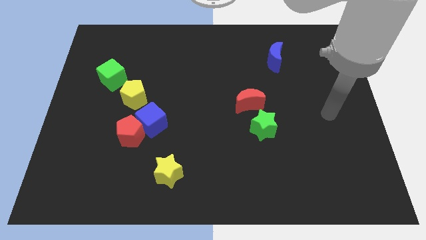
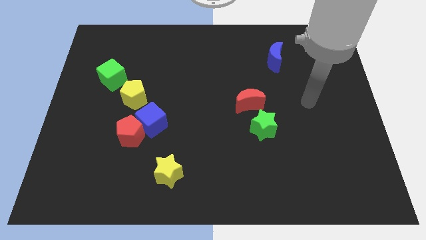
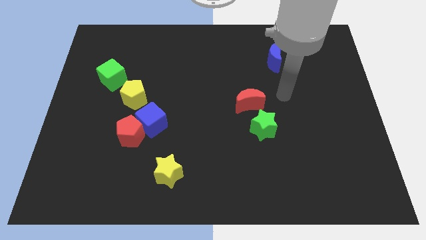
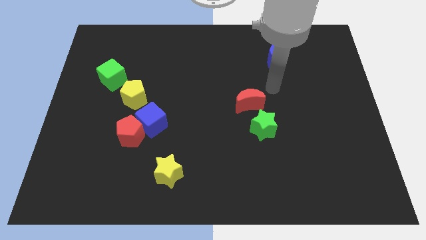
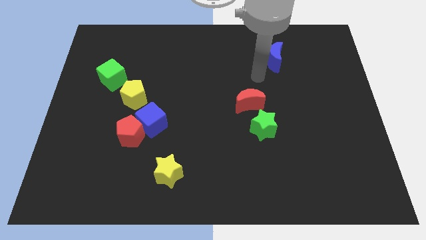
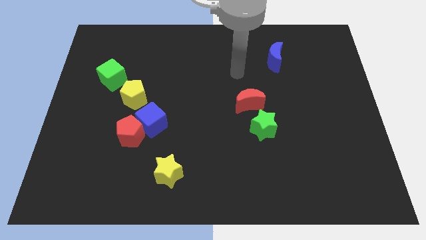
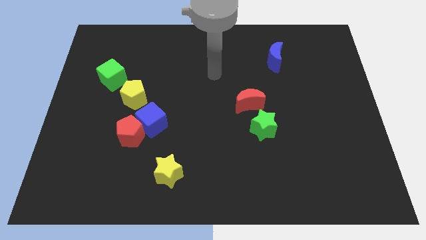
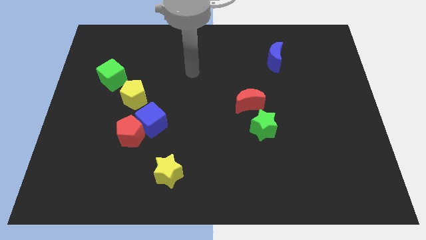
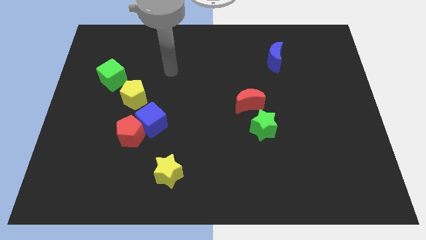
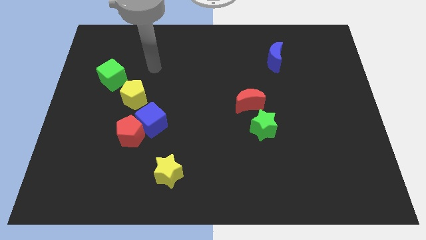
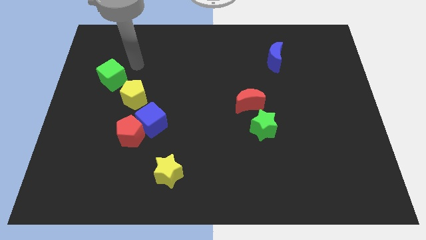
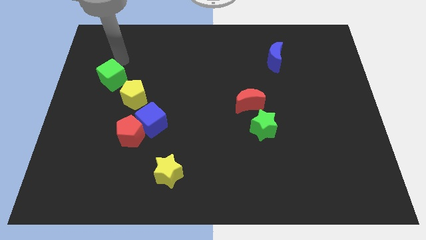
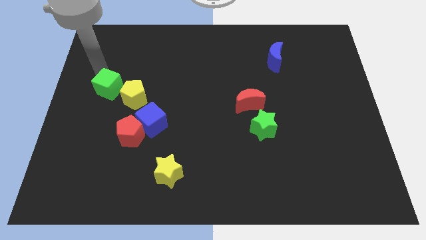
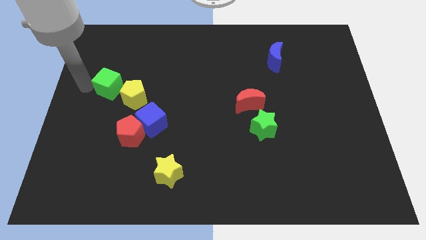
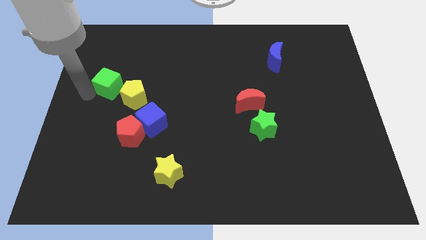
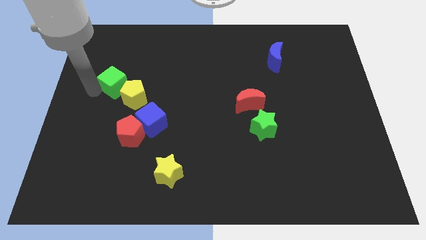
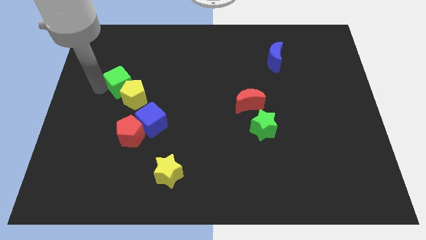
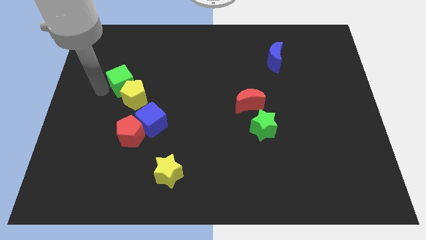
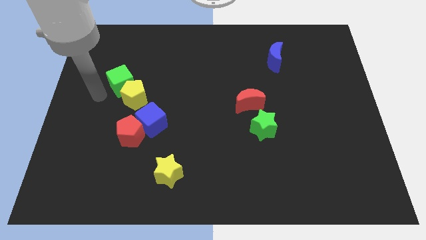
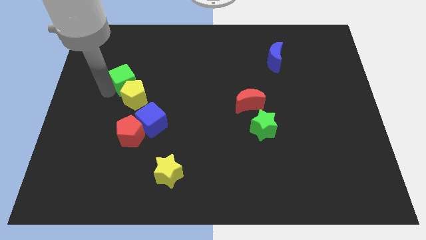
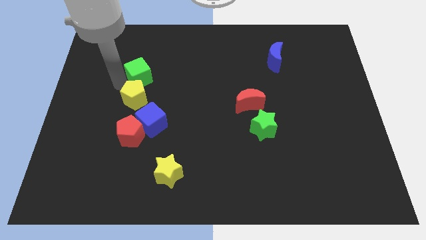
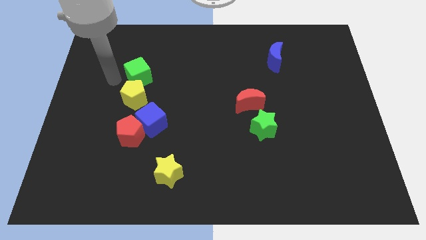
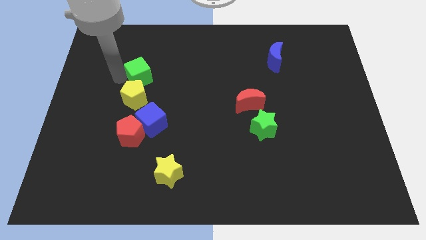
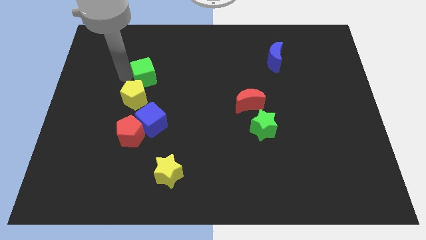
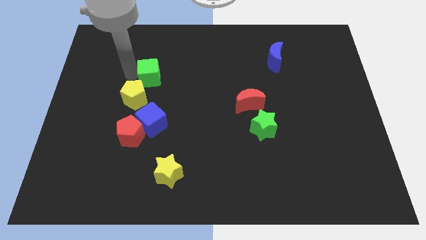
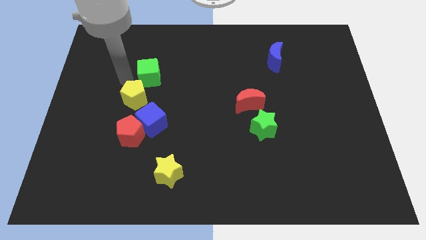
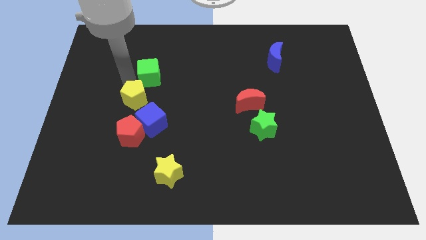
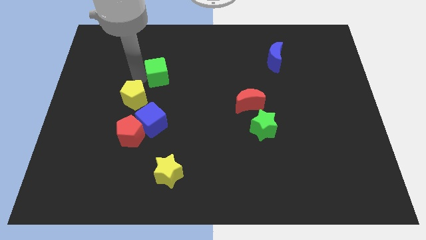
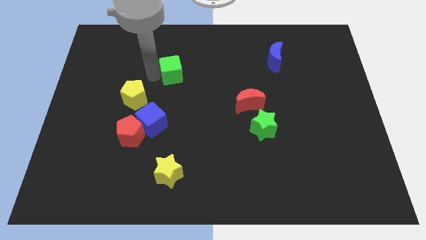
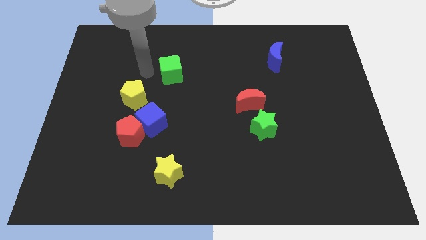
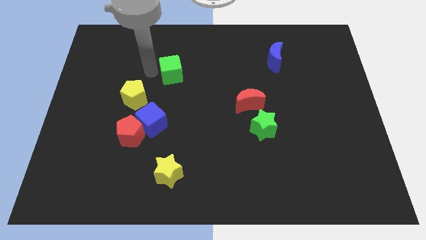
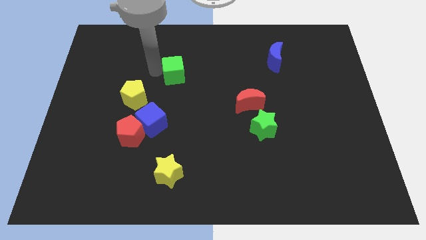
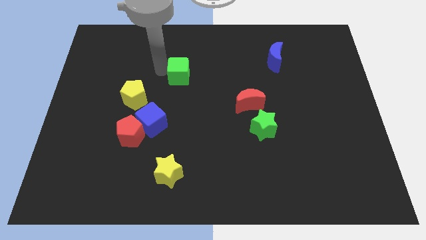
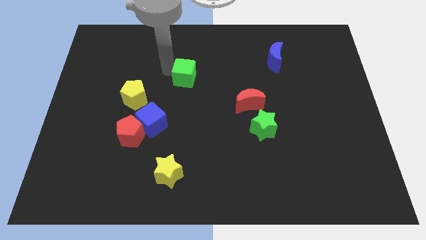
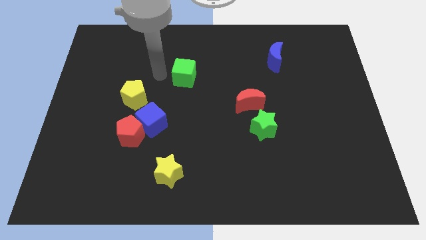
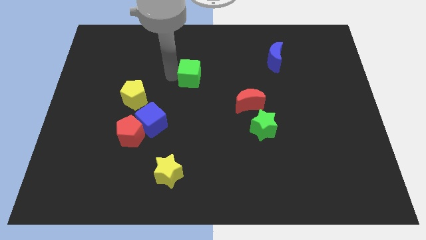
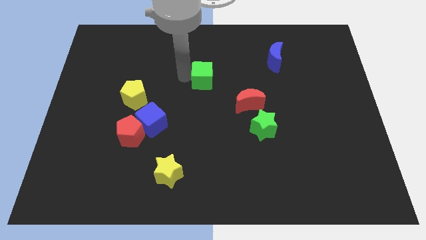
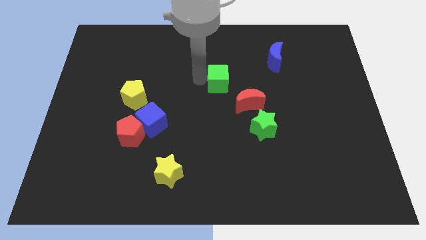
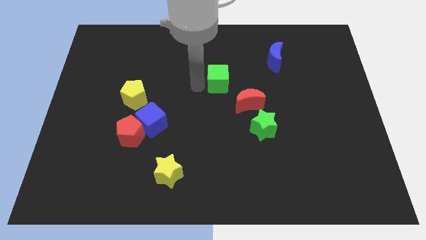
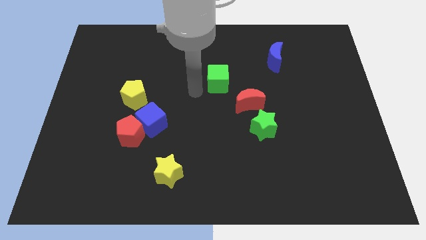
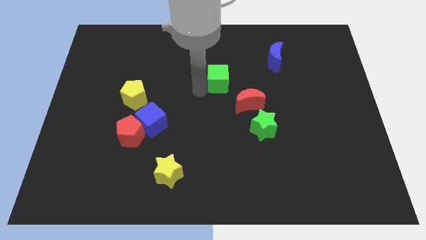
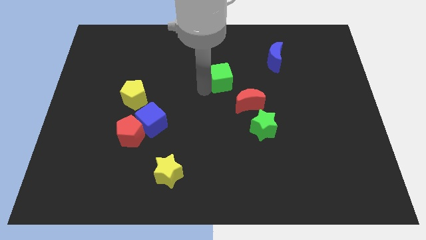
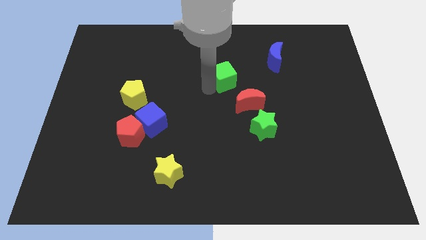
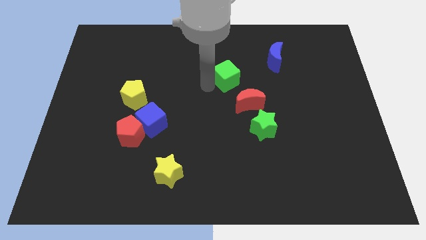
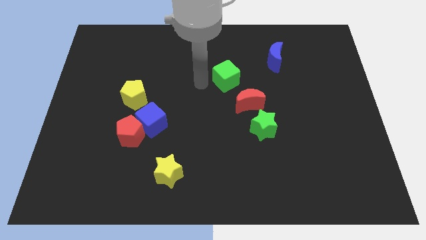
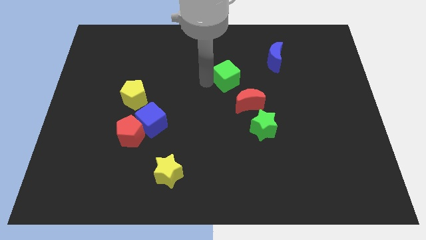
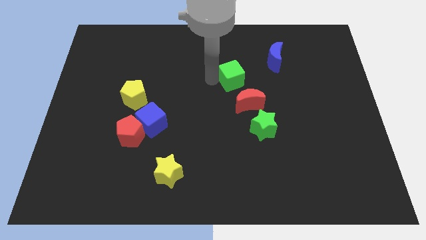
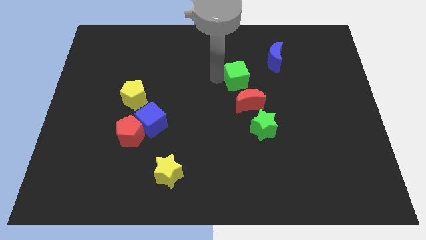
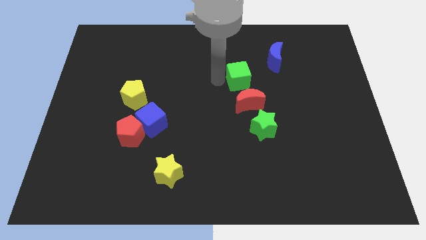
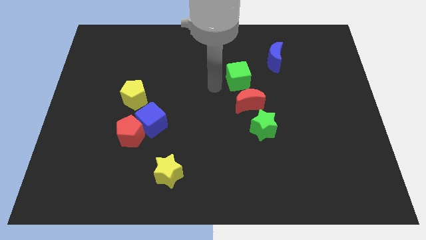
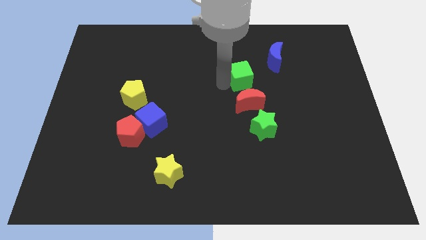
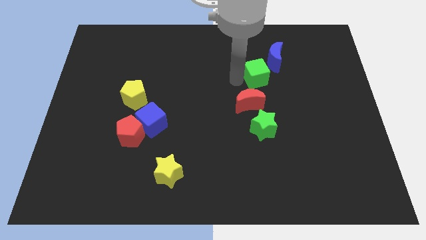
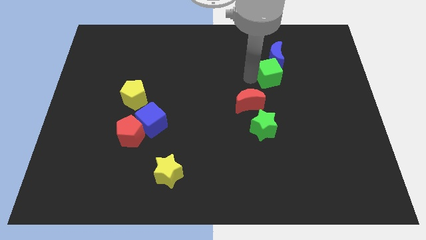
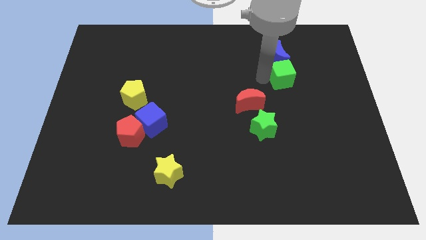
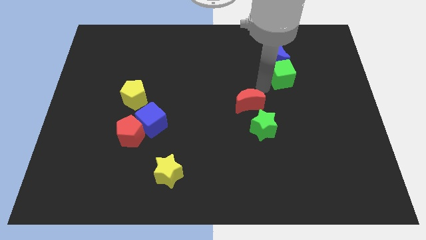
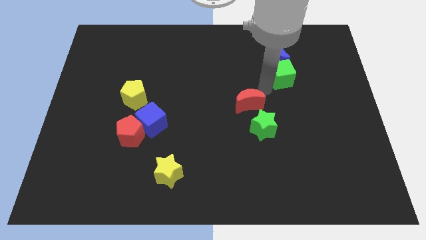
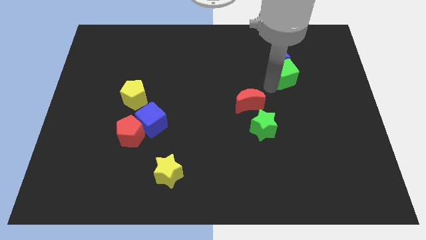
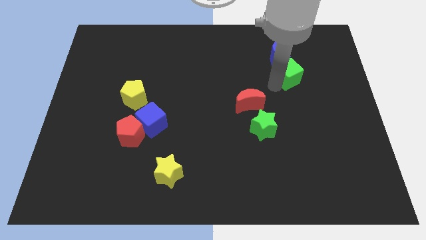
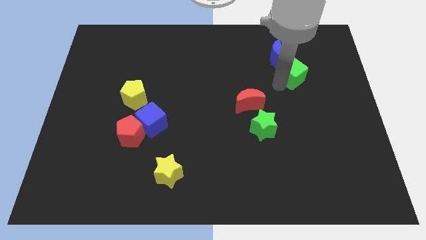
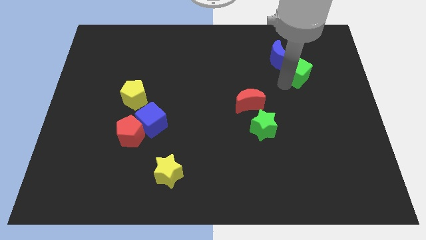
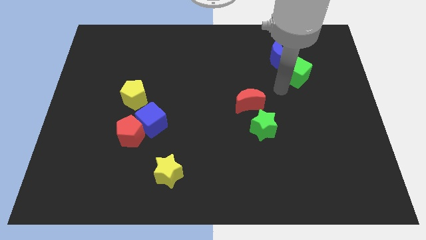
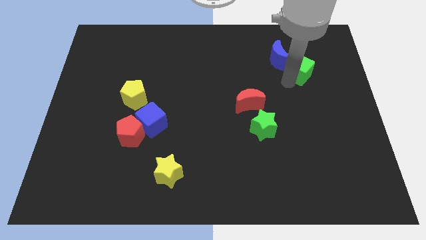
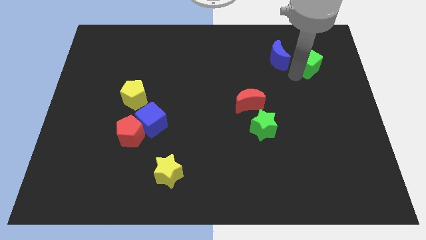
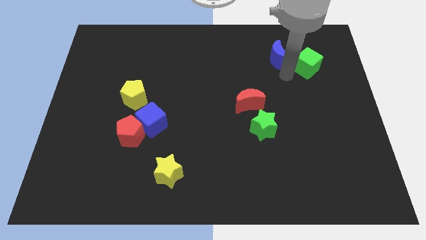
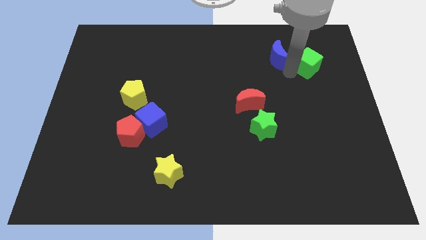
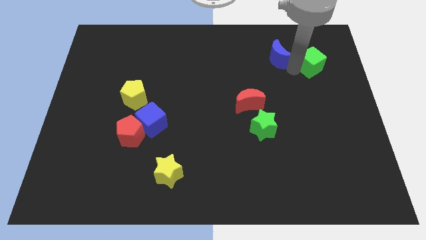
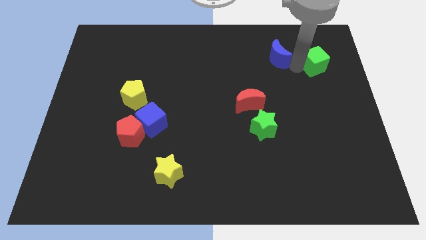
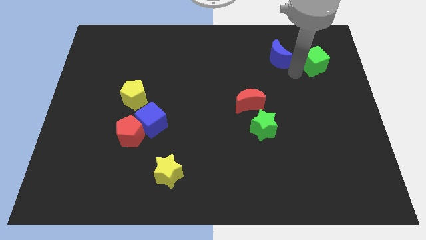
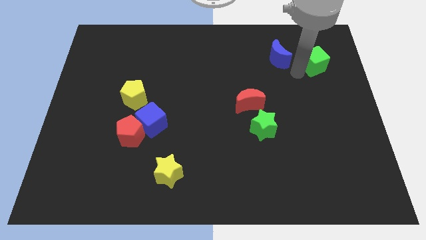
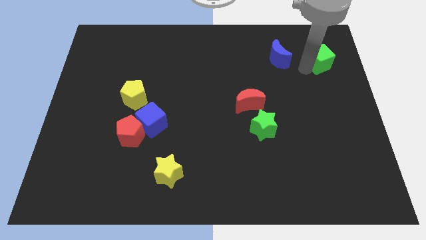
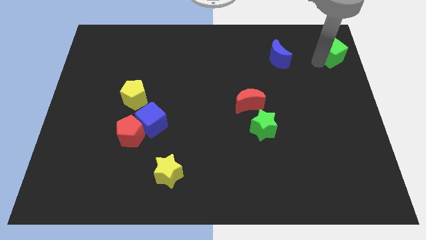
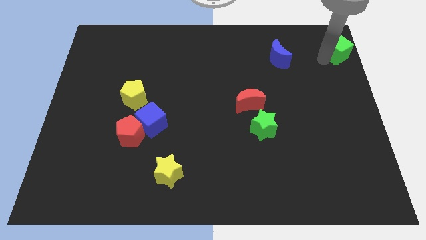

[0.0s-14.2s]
push the green cube to the upper right corner
